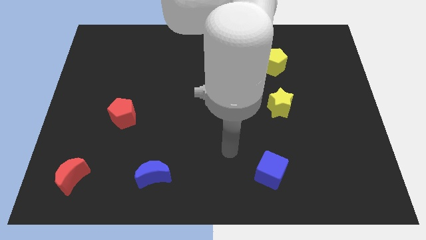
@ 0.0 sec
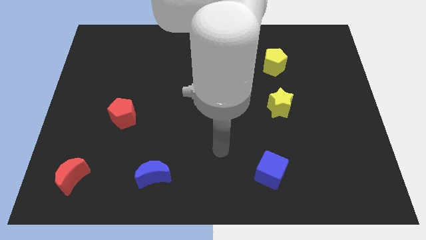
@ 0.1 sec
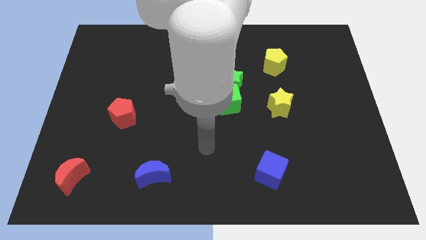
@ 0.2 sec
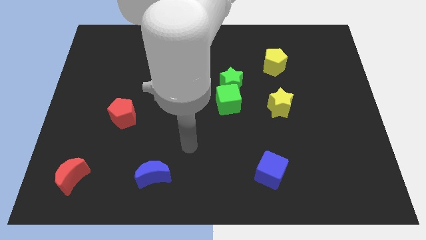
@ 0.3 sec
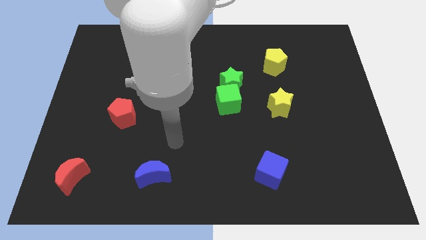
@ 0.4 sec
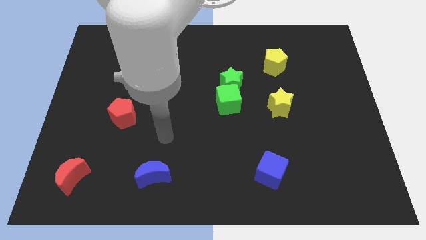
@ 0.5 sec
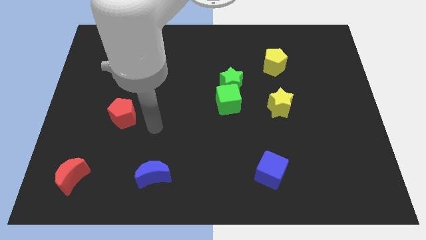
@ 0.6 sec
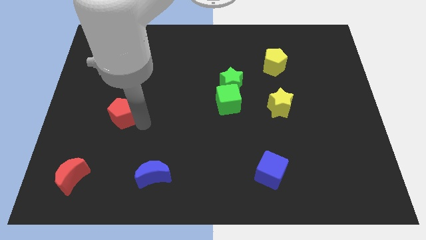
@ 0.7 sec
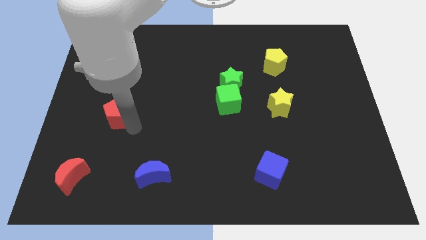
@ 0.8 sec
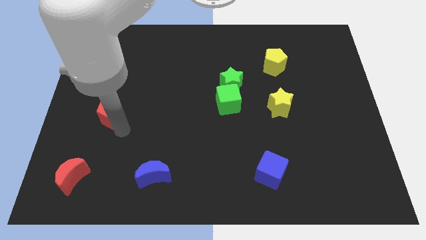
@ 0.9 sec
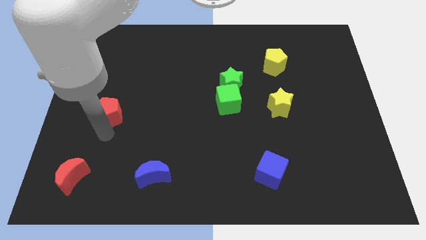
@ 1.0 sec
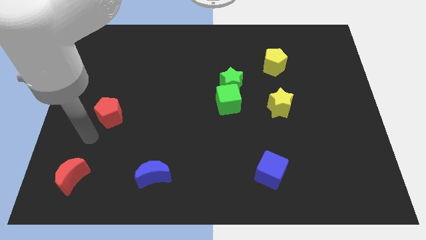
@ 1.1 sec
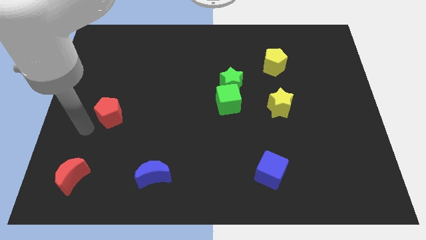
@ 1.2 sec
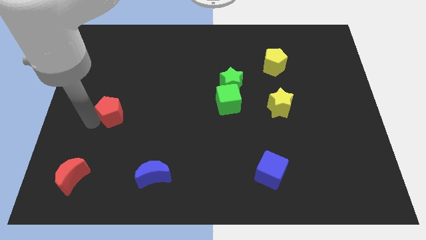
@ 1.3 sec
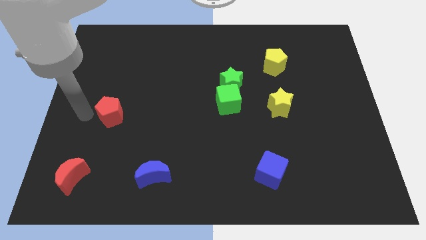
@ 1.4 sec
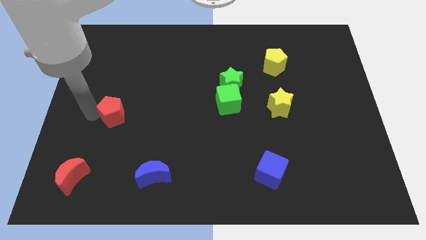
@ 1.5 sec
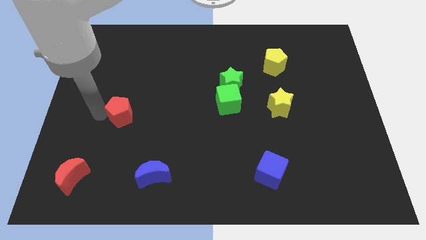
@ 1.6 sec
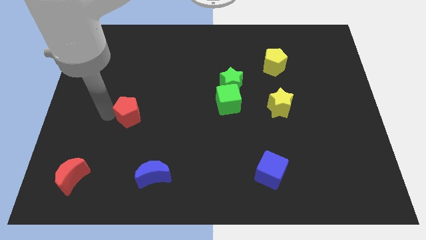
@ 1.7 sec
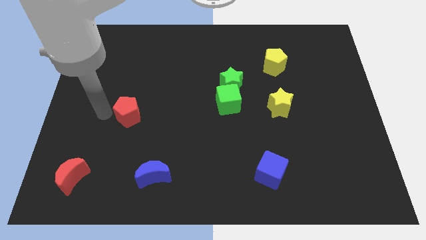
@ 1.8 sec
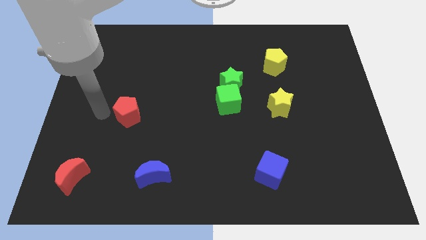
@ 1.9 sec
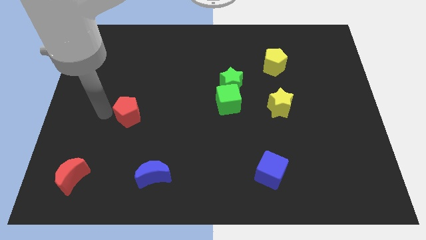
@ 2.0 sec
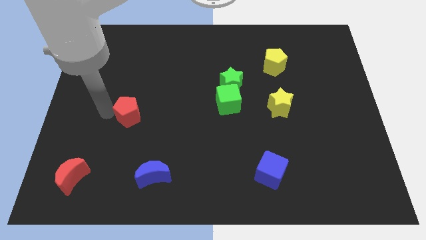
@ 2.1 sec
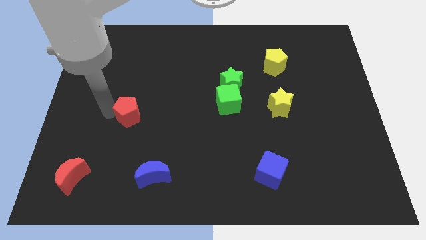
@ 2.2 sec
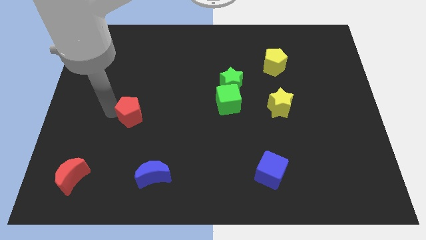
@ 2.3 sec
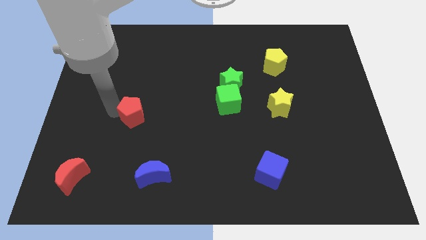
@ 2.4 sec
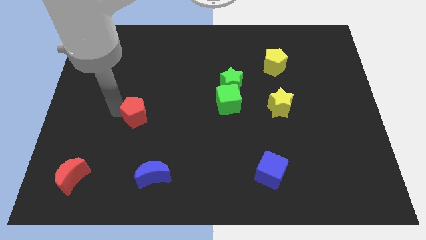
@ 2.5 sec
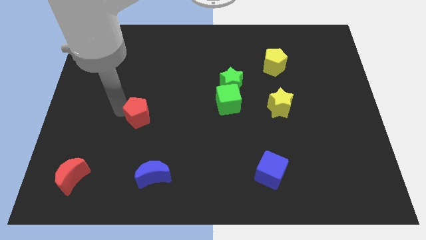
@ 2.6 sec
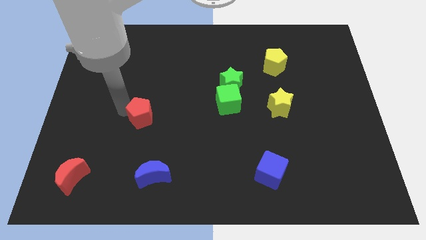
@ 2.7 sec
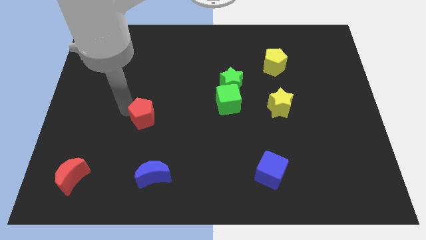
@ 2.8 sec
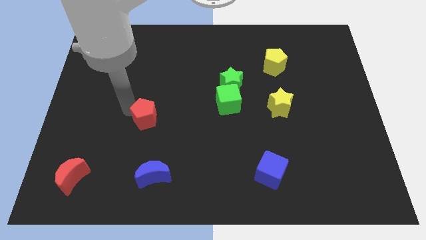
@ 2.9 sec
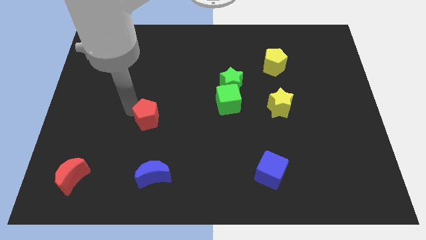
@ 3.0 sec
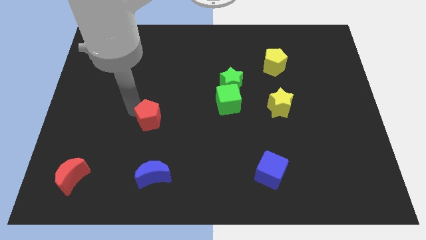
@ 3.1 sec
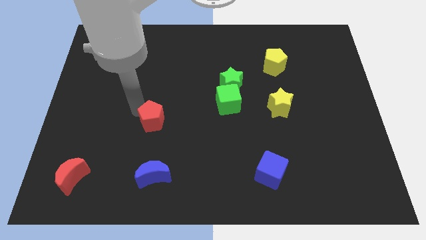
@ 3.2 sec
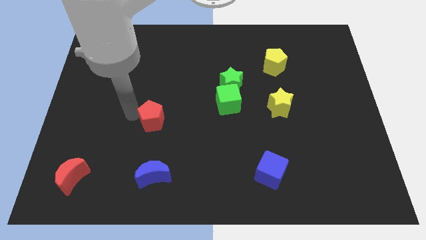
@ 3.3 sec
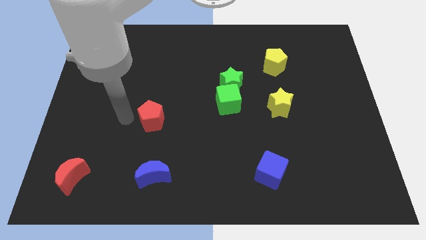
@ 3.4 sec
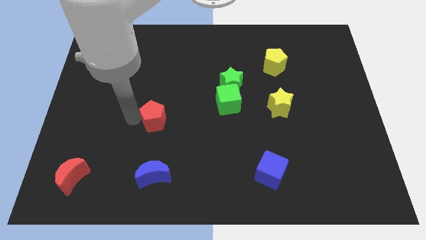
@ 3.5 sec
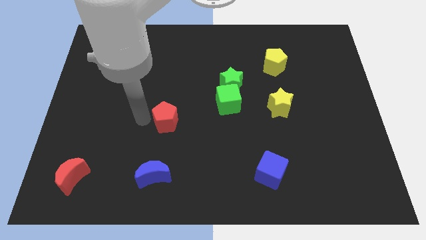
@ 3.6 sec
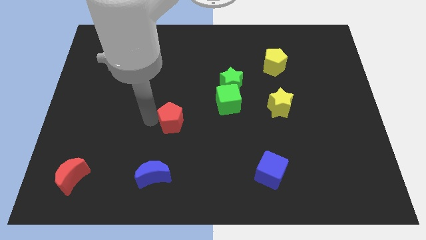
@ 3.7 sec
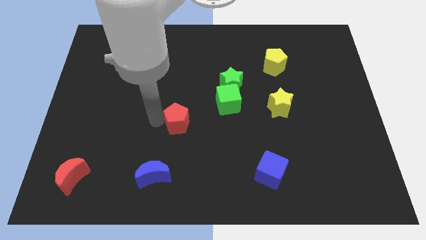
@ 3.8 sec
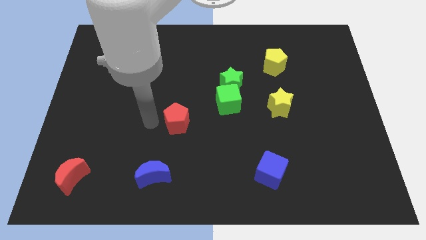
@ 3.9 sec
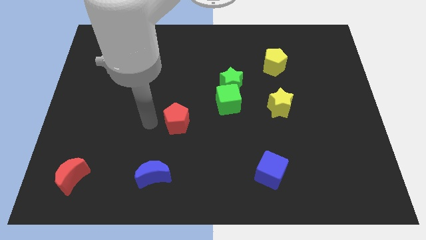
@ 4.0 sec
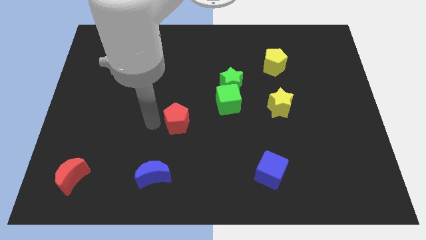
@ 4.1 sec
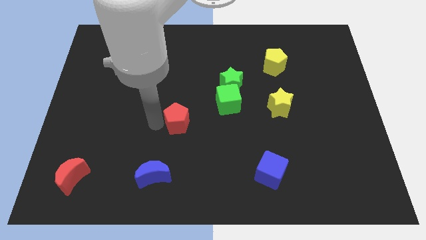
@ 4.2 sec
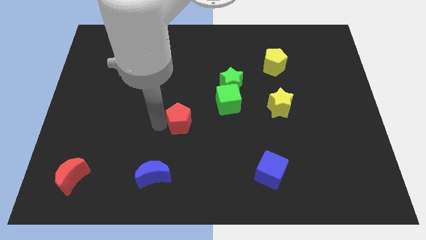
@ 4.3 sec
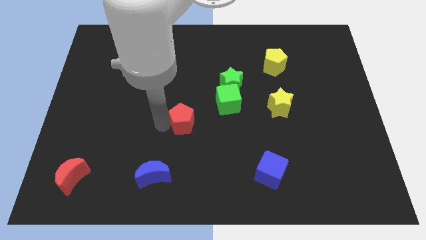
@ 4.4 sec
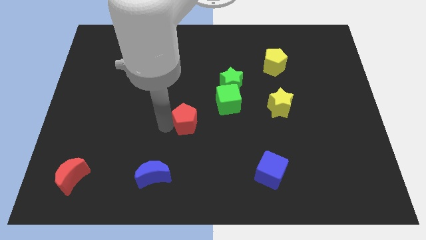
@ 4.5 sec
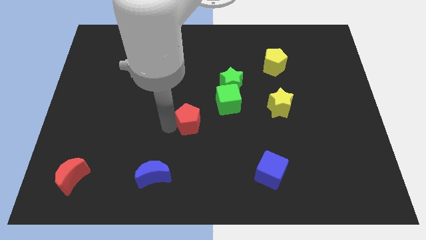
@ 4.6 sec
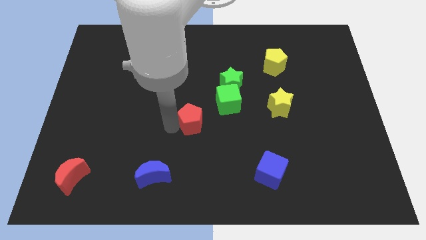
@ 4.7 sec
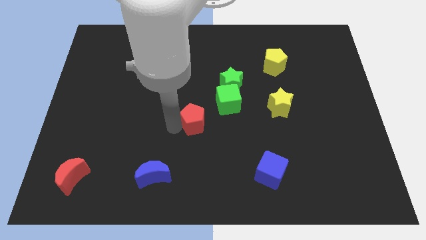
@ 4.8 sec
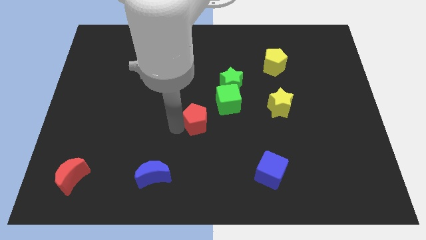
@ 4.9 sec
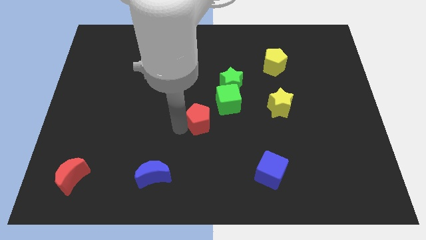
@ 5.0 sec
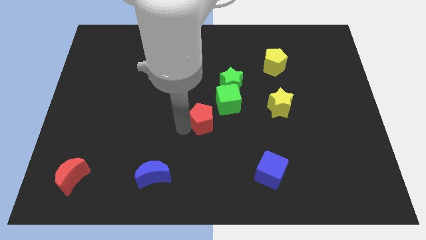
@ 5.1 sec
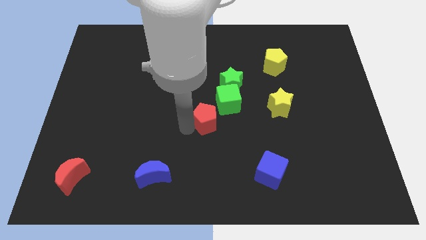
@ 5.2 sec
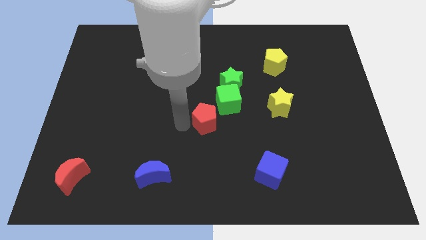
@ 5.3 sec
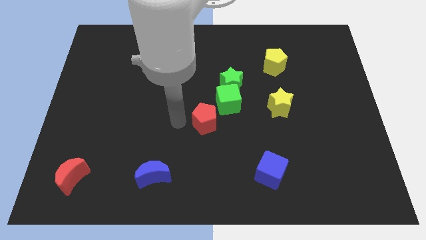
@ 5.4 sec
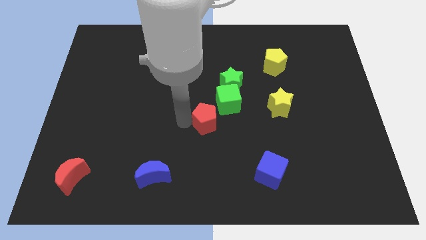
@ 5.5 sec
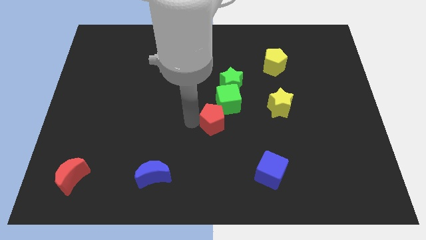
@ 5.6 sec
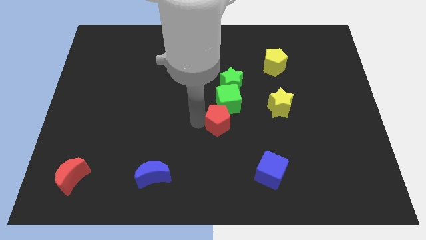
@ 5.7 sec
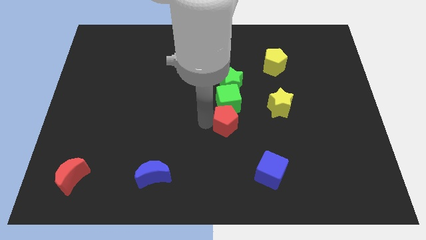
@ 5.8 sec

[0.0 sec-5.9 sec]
slide the red pentagon to the bottom right side of the green cube

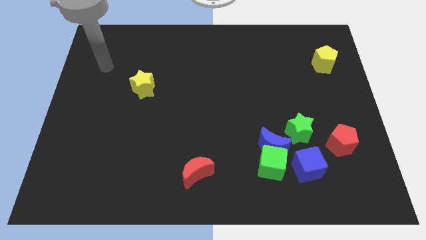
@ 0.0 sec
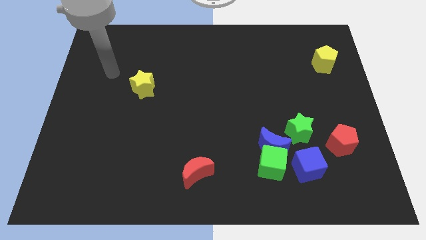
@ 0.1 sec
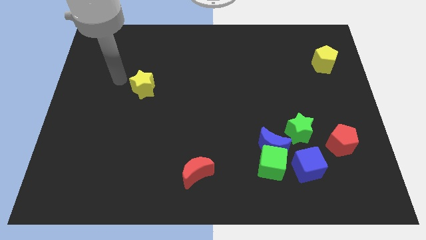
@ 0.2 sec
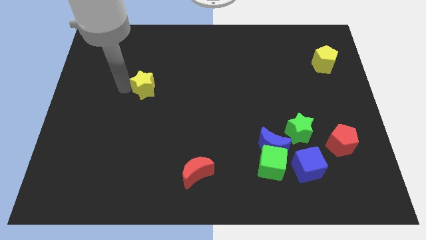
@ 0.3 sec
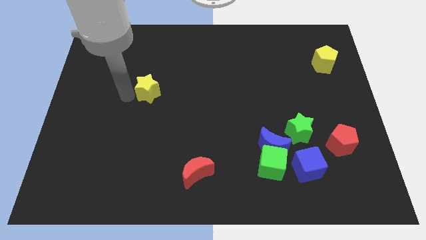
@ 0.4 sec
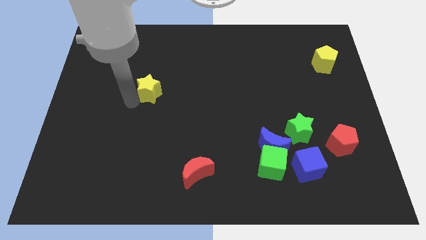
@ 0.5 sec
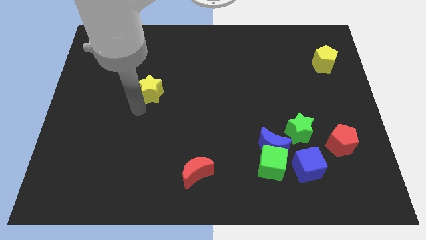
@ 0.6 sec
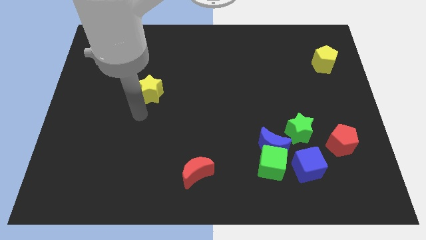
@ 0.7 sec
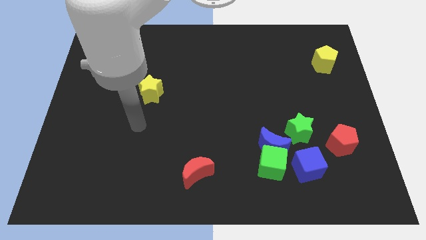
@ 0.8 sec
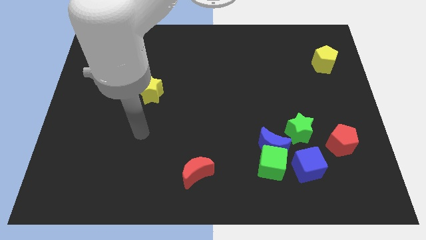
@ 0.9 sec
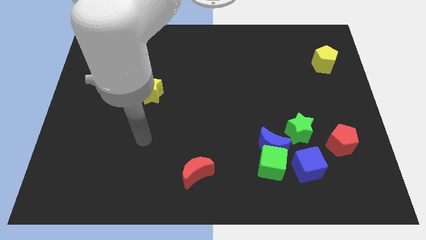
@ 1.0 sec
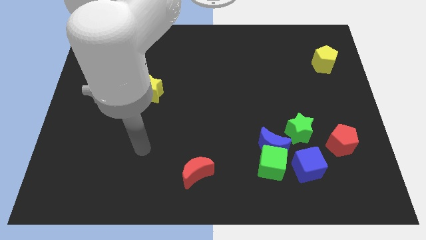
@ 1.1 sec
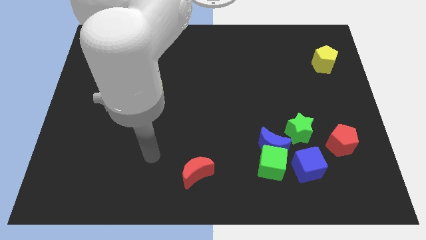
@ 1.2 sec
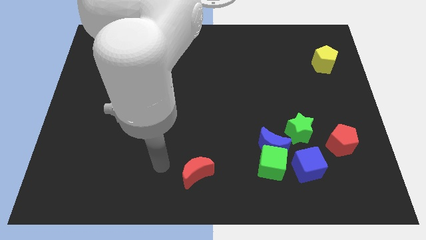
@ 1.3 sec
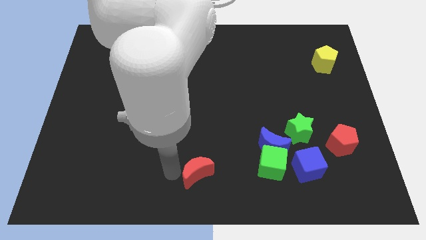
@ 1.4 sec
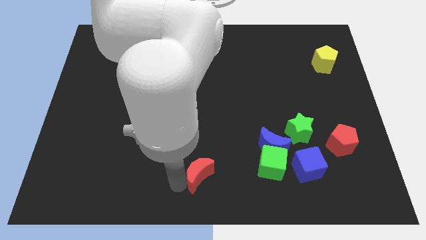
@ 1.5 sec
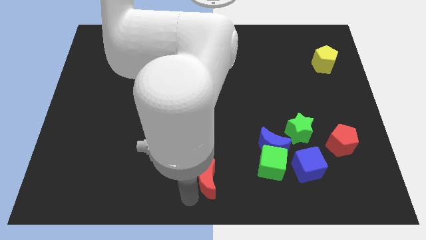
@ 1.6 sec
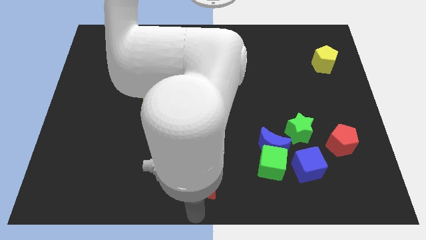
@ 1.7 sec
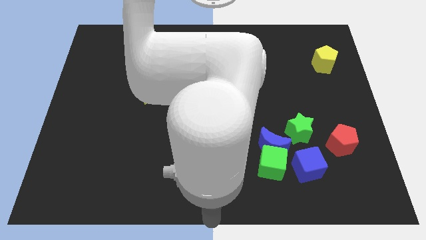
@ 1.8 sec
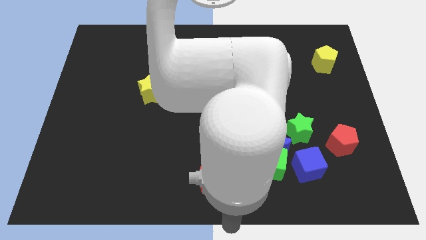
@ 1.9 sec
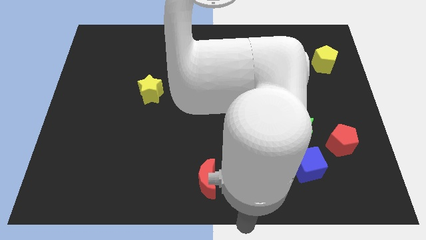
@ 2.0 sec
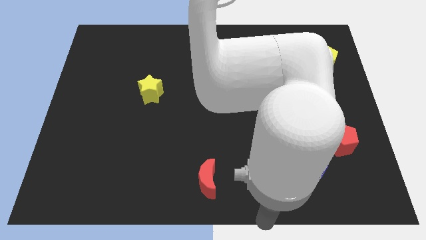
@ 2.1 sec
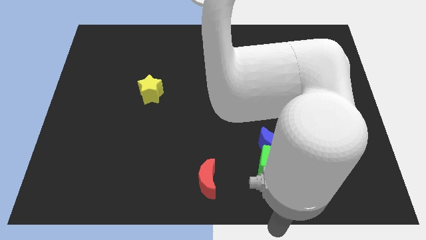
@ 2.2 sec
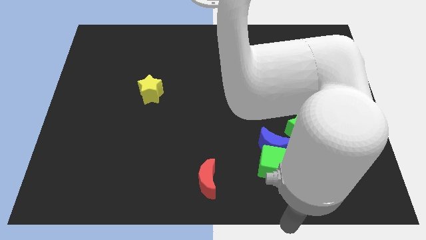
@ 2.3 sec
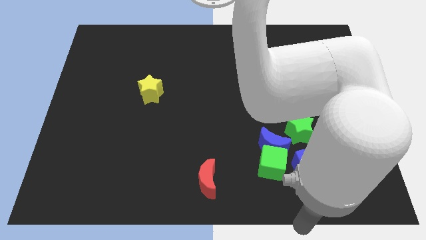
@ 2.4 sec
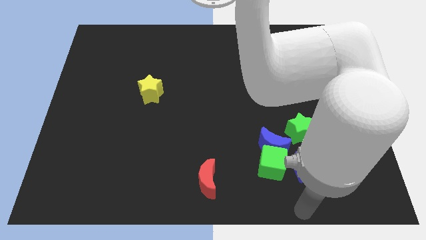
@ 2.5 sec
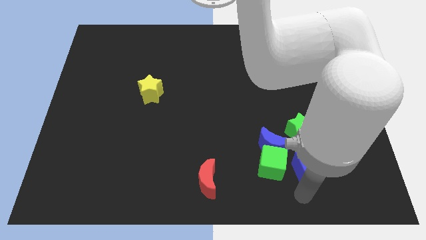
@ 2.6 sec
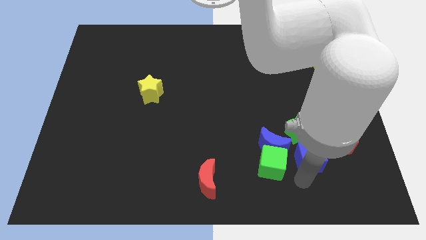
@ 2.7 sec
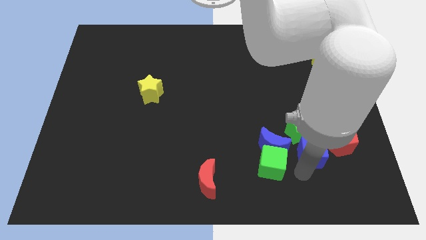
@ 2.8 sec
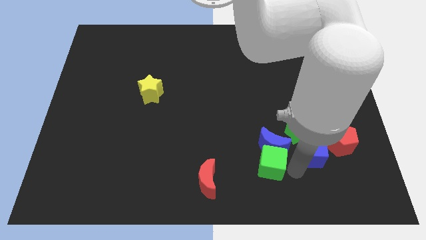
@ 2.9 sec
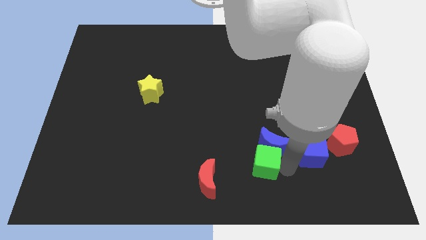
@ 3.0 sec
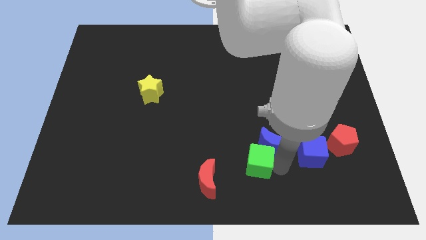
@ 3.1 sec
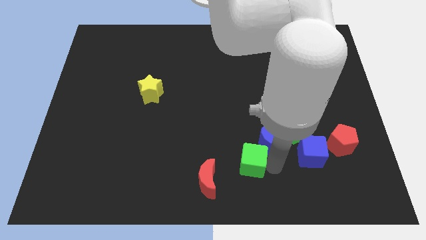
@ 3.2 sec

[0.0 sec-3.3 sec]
move the green cube to the top right of the red moon
